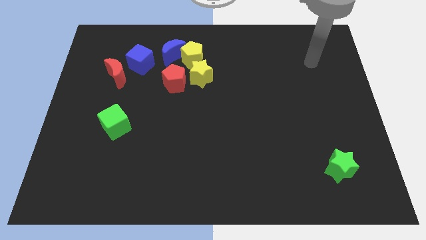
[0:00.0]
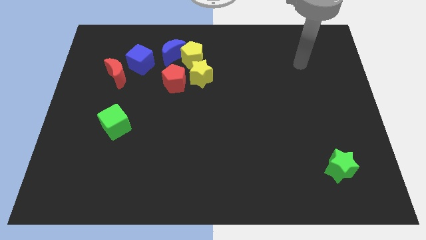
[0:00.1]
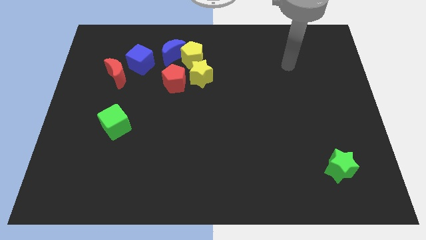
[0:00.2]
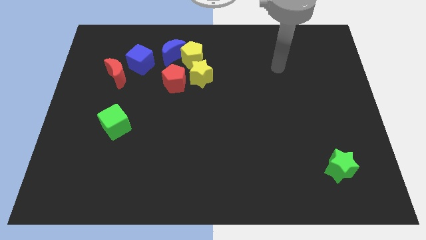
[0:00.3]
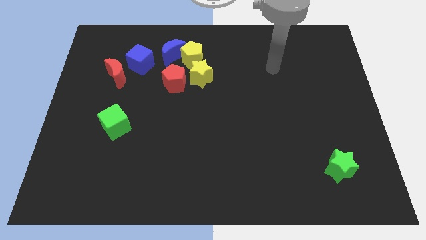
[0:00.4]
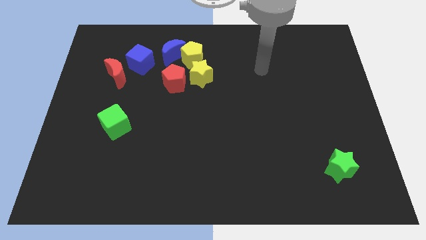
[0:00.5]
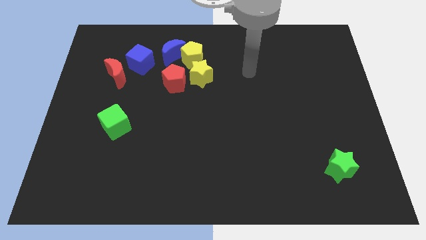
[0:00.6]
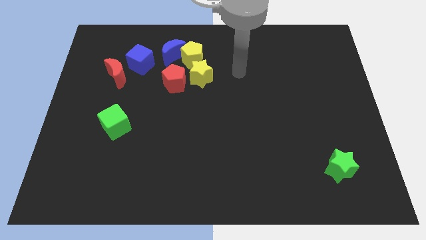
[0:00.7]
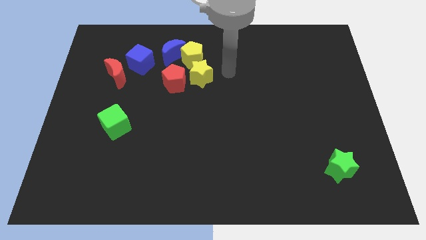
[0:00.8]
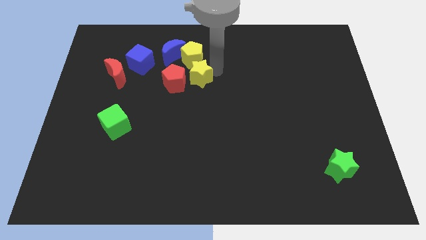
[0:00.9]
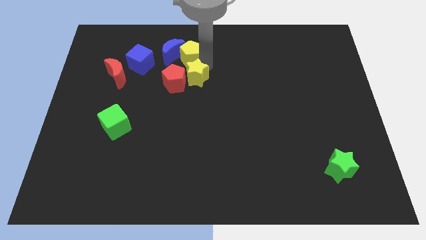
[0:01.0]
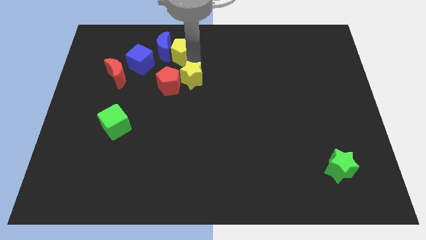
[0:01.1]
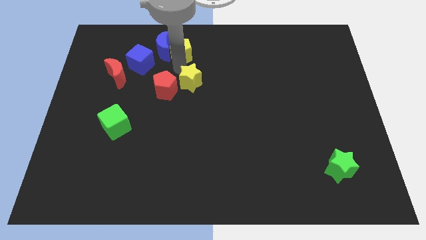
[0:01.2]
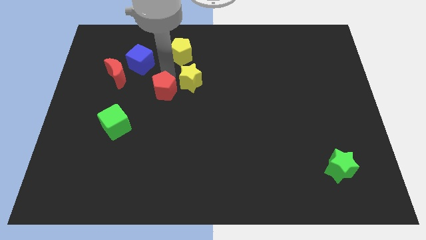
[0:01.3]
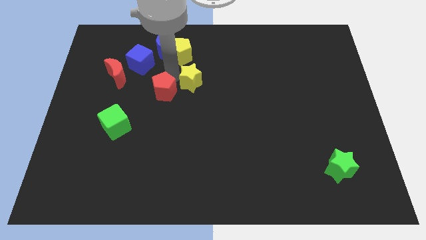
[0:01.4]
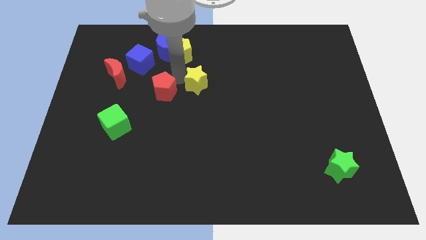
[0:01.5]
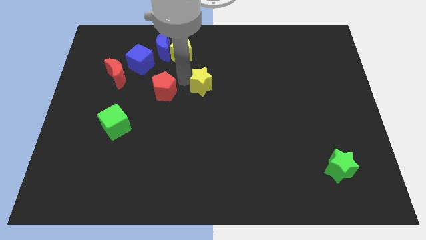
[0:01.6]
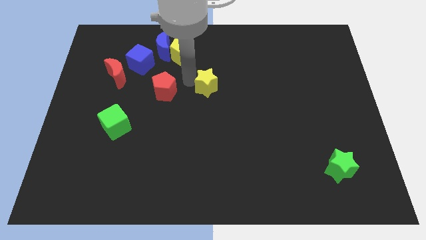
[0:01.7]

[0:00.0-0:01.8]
pull the yellow star apart from the red pentagon and yellow pentagon

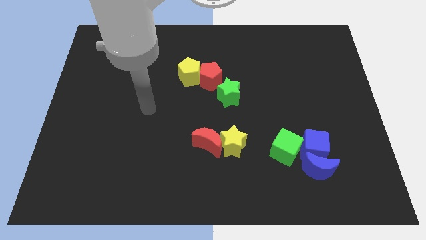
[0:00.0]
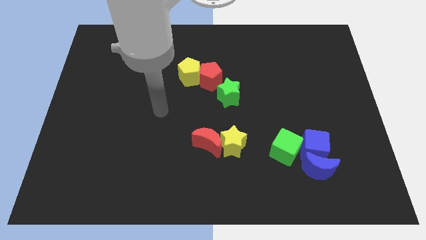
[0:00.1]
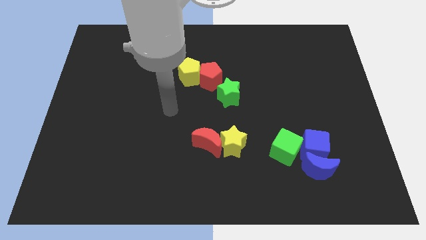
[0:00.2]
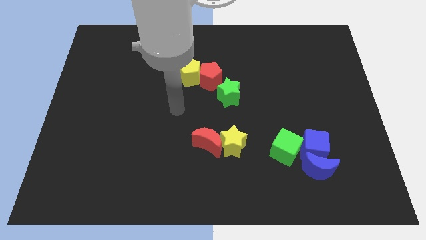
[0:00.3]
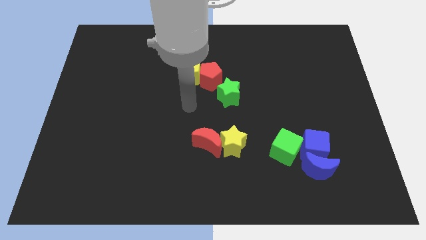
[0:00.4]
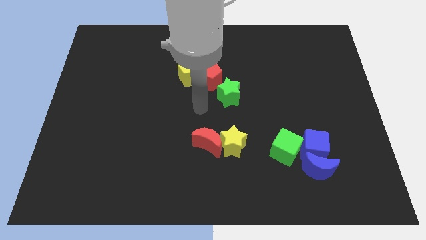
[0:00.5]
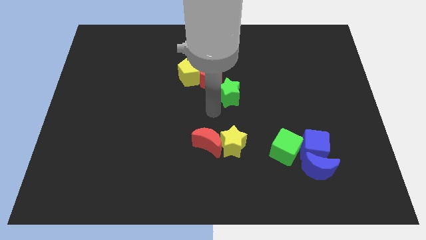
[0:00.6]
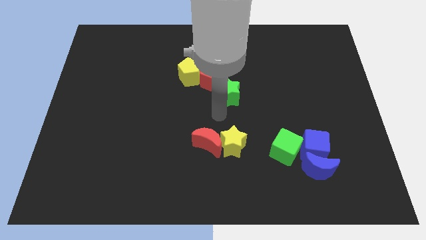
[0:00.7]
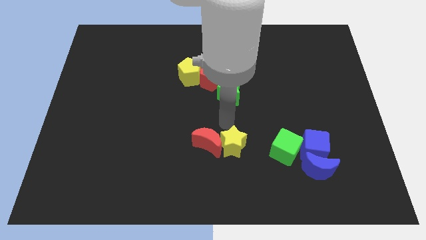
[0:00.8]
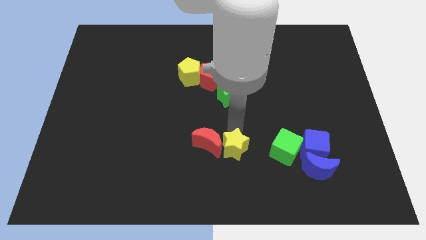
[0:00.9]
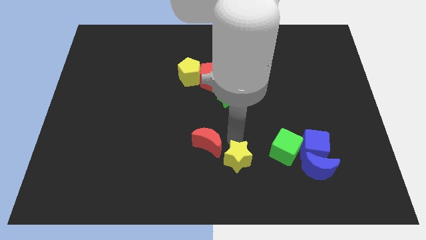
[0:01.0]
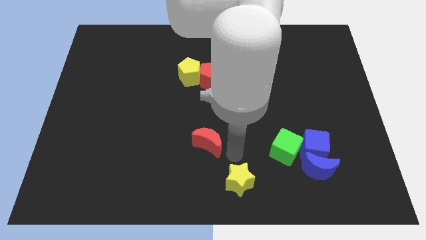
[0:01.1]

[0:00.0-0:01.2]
move the red moon away from the yellow star

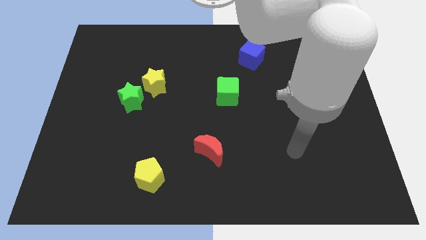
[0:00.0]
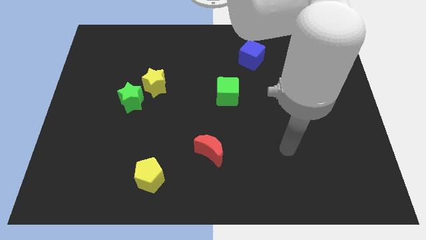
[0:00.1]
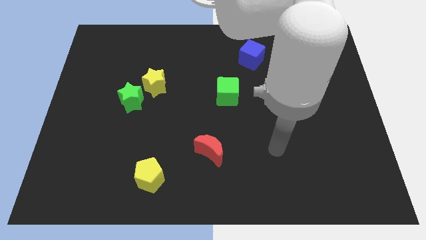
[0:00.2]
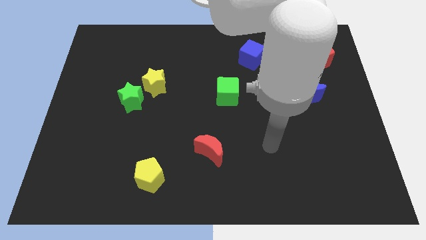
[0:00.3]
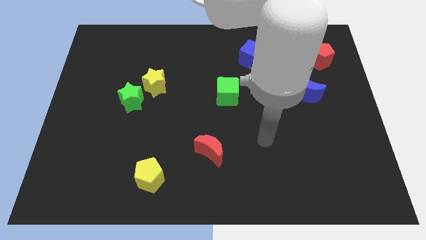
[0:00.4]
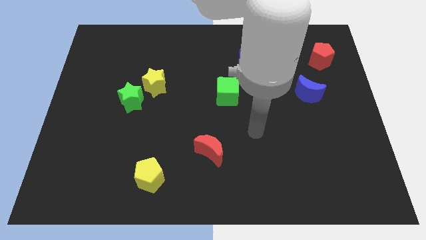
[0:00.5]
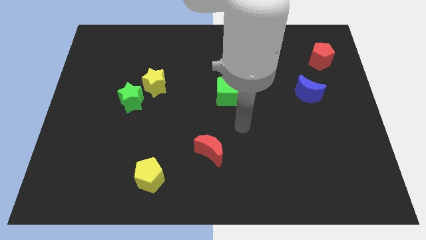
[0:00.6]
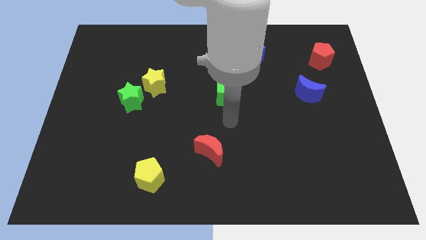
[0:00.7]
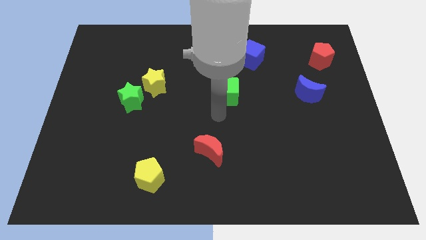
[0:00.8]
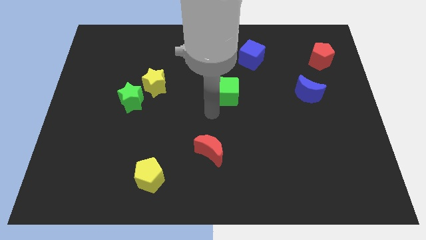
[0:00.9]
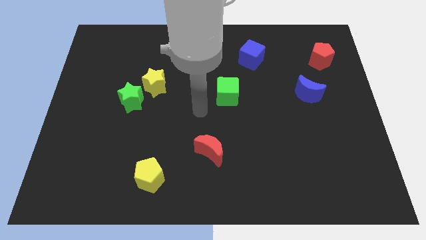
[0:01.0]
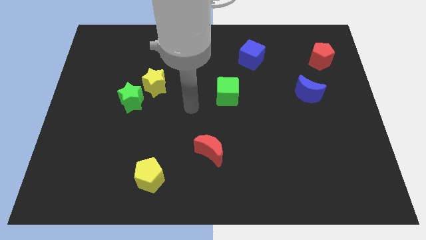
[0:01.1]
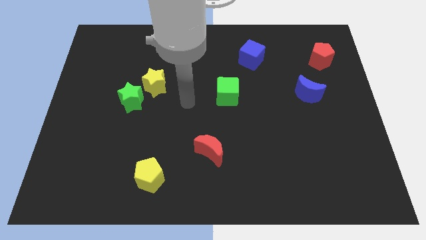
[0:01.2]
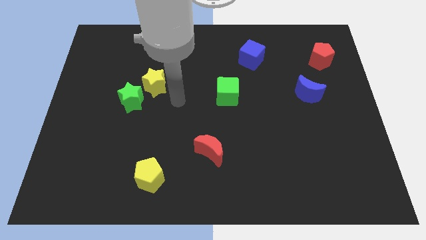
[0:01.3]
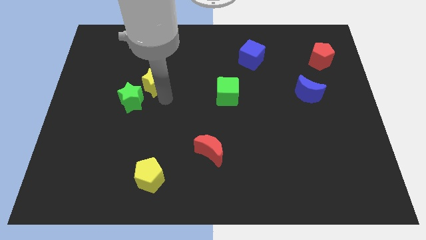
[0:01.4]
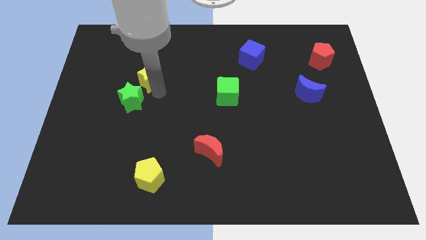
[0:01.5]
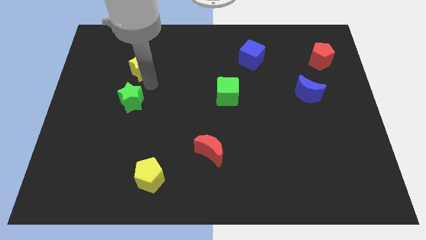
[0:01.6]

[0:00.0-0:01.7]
pull the green star apart from the yellow star

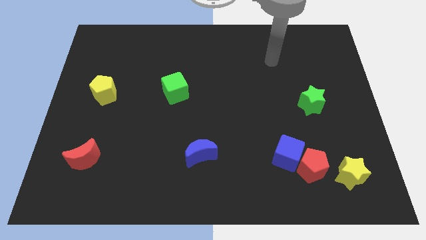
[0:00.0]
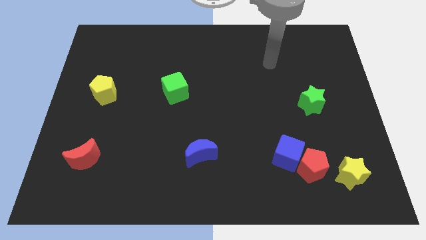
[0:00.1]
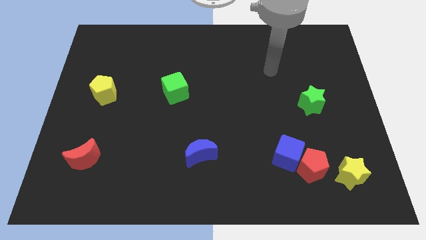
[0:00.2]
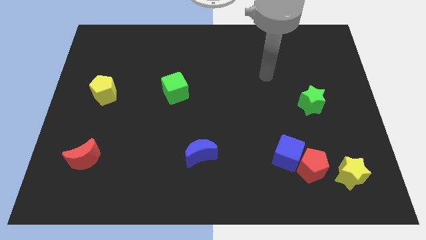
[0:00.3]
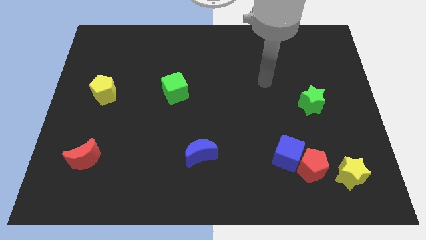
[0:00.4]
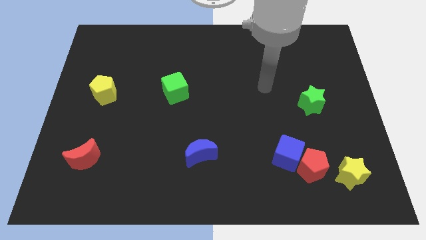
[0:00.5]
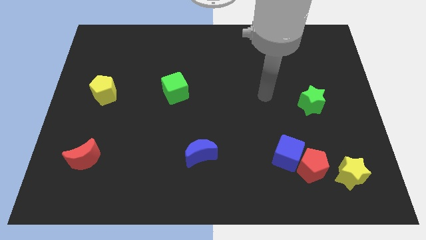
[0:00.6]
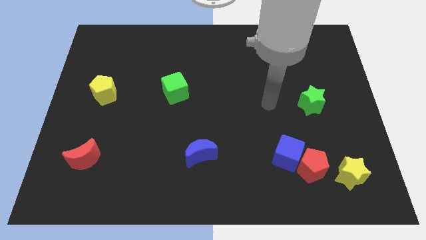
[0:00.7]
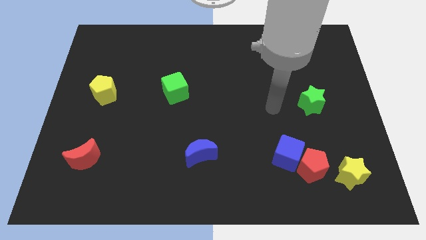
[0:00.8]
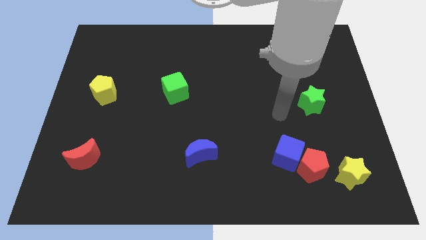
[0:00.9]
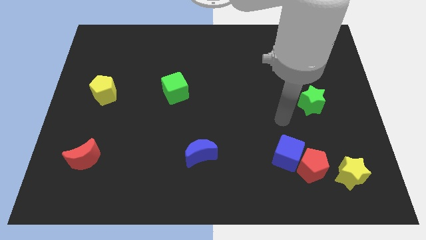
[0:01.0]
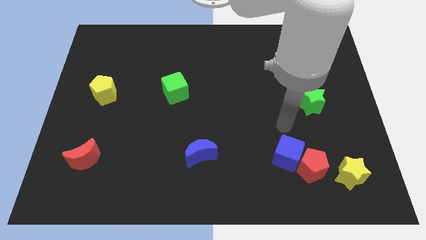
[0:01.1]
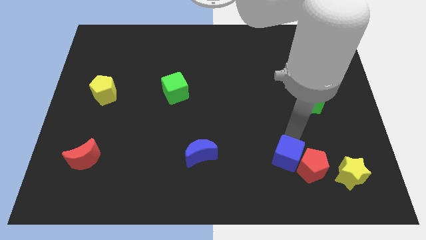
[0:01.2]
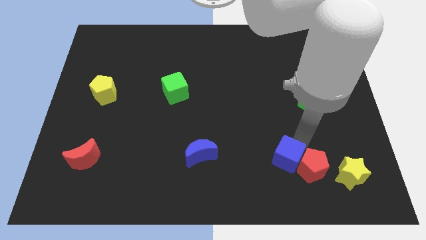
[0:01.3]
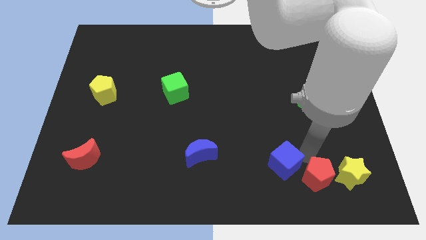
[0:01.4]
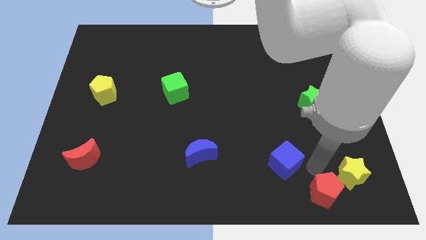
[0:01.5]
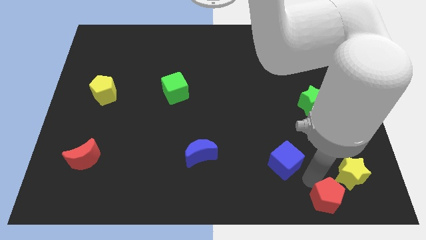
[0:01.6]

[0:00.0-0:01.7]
pull the blue cube apart from the red pentagon

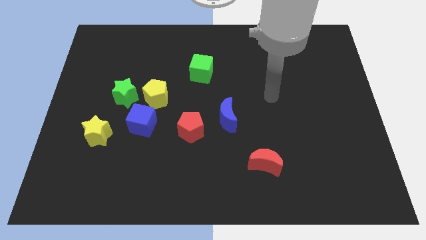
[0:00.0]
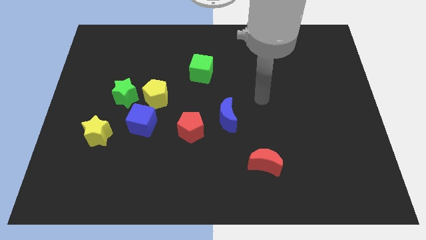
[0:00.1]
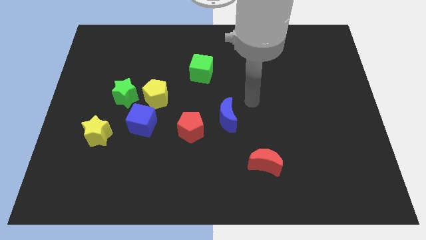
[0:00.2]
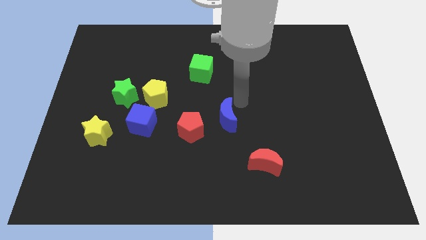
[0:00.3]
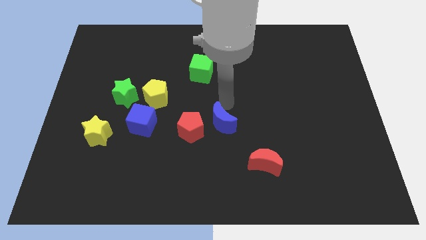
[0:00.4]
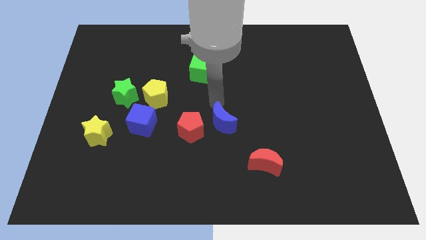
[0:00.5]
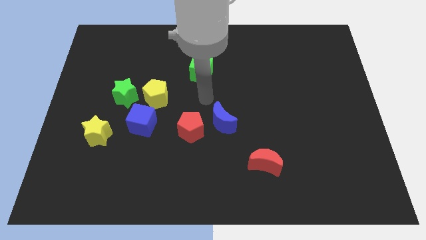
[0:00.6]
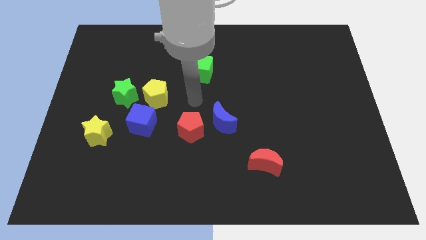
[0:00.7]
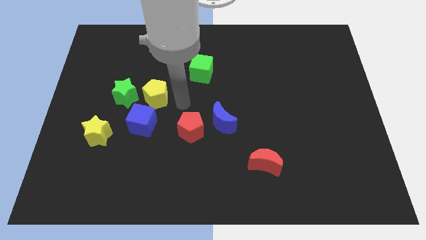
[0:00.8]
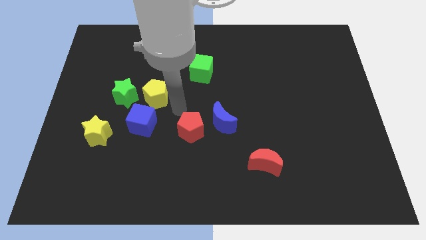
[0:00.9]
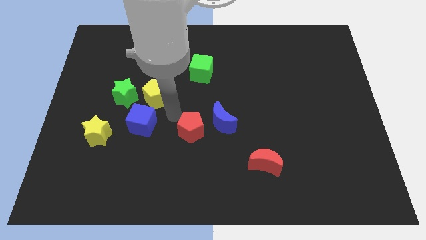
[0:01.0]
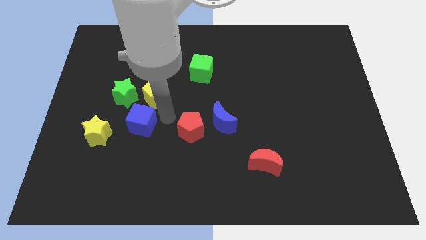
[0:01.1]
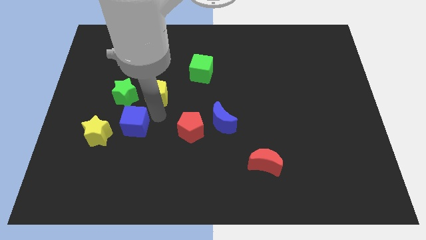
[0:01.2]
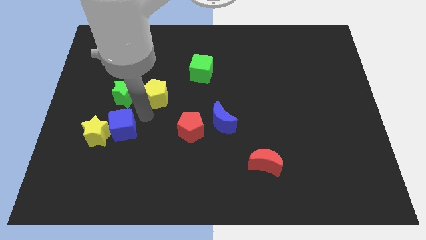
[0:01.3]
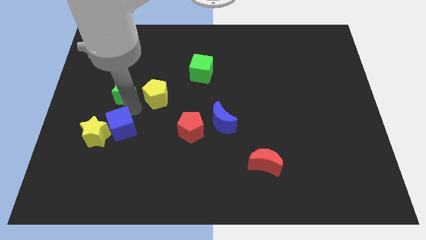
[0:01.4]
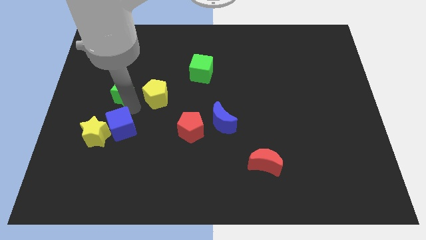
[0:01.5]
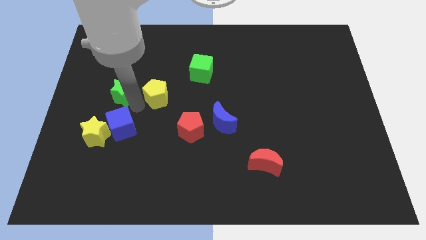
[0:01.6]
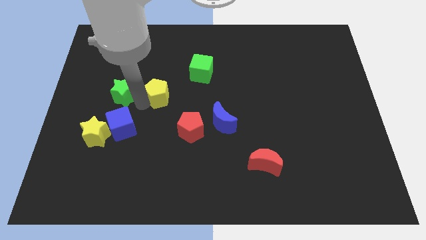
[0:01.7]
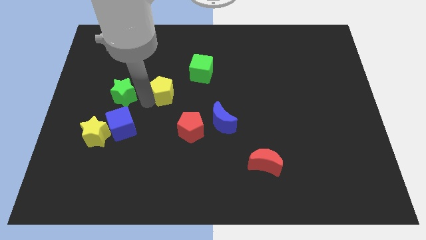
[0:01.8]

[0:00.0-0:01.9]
separate the yellow pentagon from the green star and blue cube

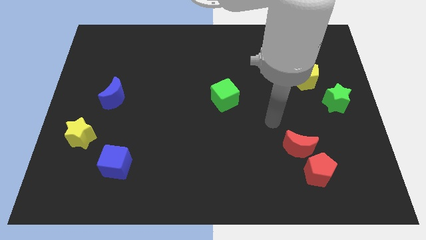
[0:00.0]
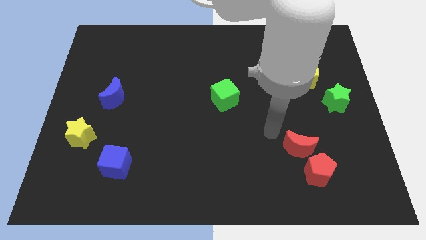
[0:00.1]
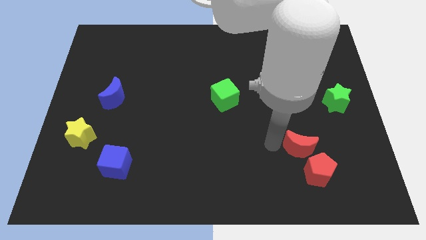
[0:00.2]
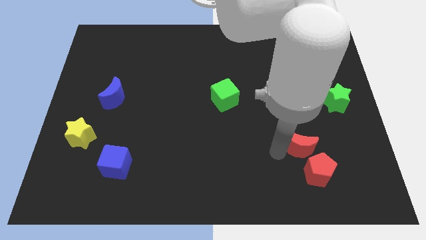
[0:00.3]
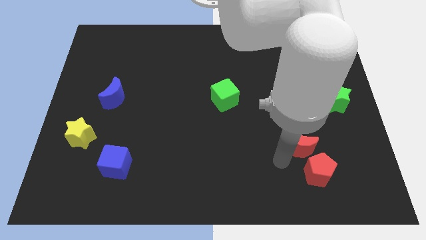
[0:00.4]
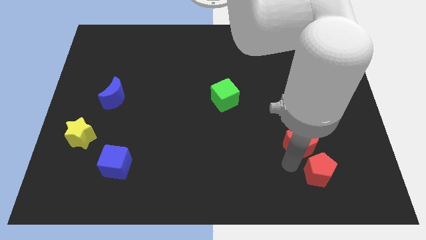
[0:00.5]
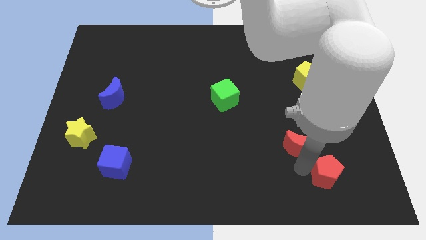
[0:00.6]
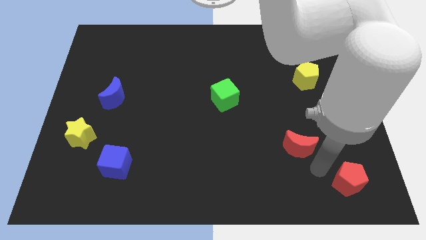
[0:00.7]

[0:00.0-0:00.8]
separate the red moon from the red pentagon

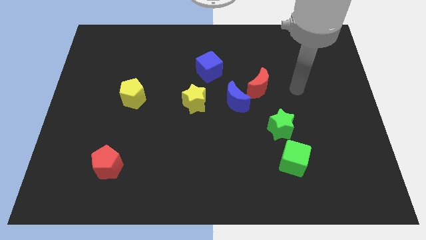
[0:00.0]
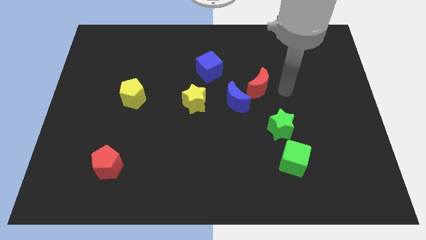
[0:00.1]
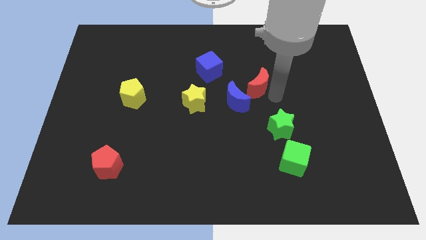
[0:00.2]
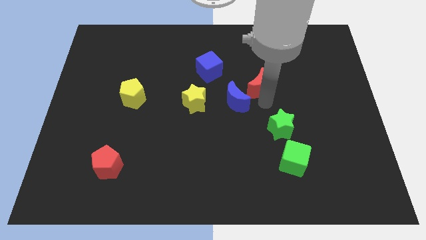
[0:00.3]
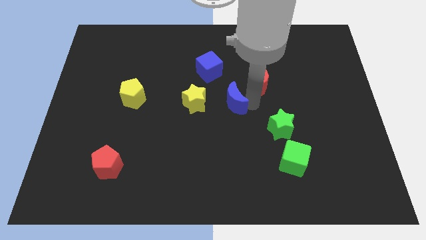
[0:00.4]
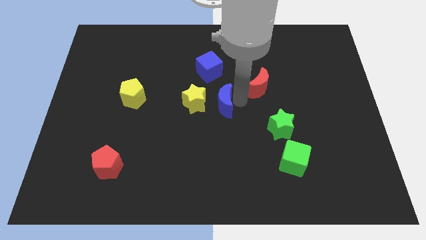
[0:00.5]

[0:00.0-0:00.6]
move the red moon away from the blue moon
